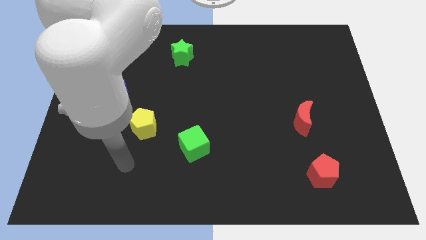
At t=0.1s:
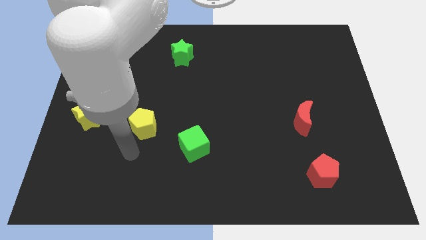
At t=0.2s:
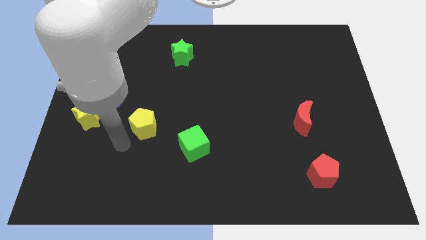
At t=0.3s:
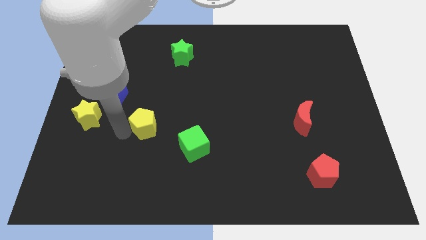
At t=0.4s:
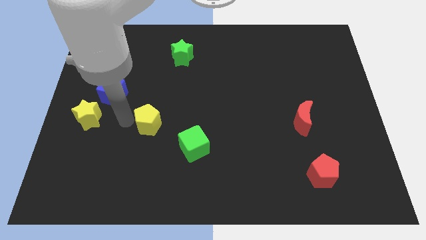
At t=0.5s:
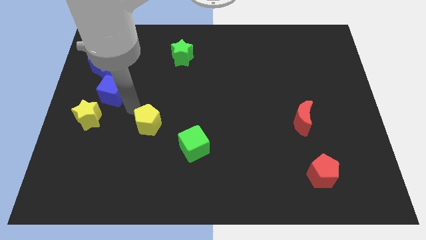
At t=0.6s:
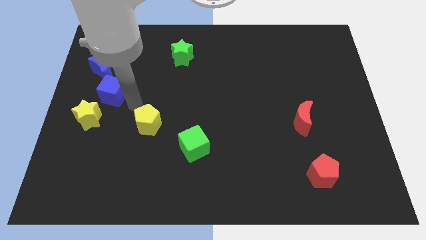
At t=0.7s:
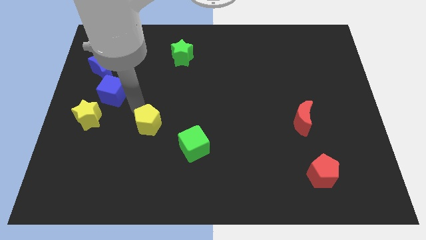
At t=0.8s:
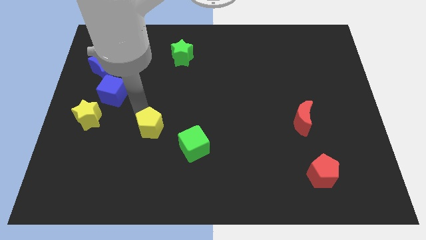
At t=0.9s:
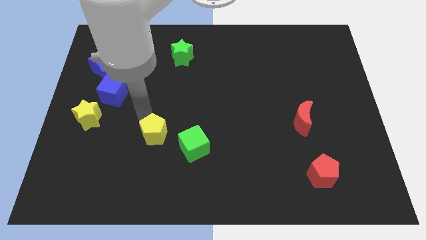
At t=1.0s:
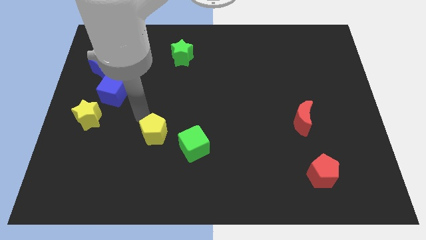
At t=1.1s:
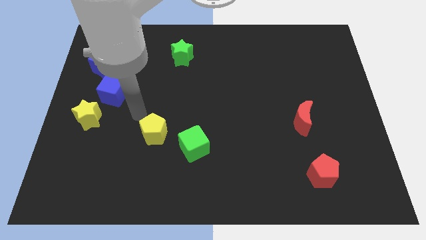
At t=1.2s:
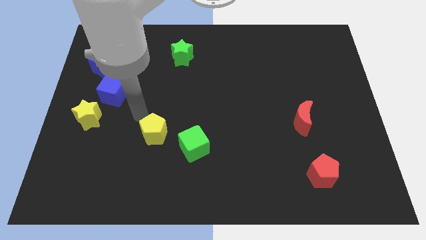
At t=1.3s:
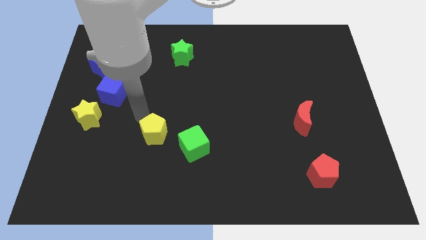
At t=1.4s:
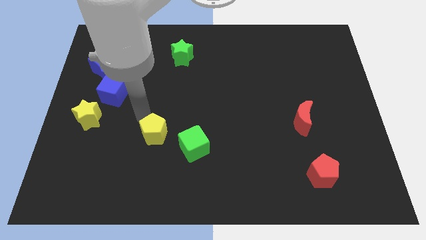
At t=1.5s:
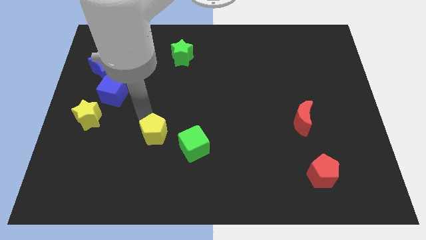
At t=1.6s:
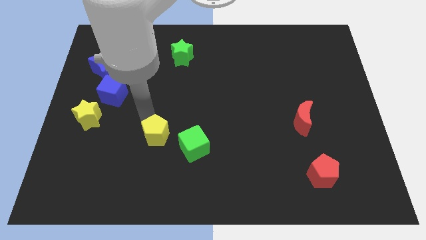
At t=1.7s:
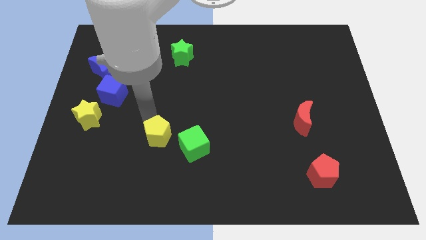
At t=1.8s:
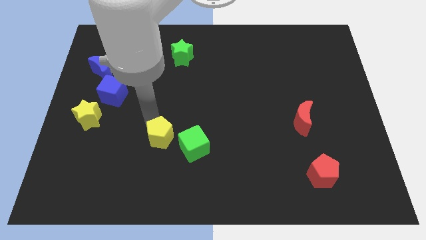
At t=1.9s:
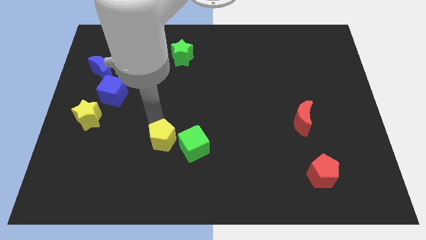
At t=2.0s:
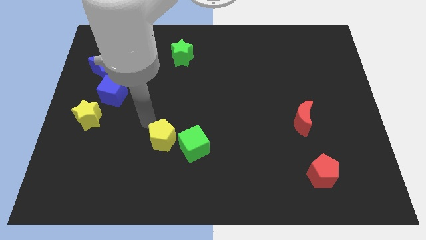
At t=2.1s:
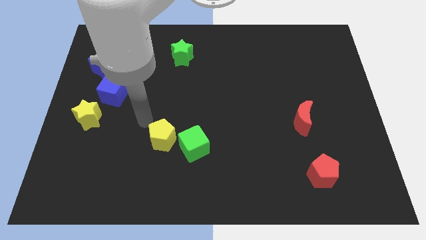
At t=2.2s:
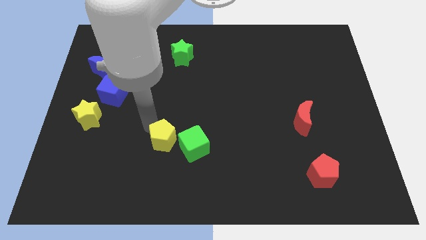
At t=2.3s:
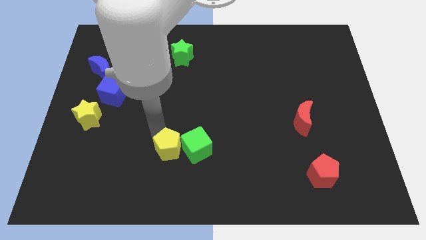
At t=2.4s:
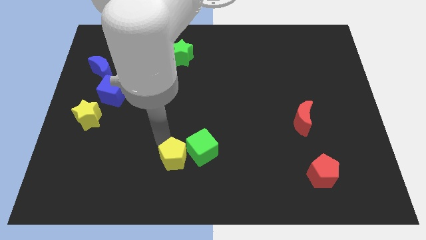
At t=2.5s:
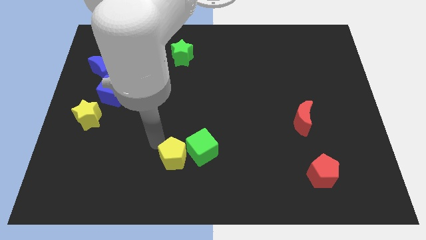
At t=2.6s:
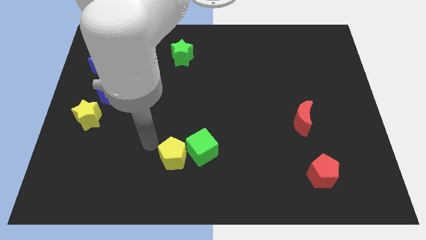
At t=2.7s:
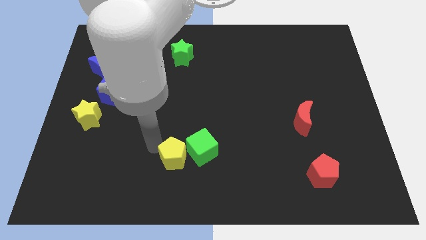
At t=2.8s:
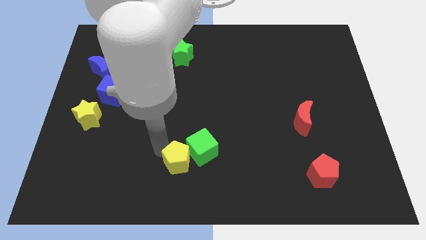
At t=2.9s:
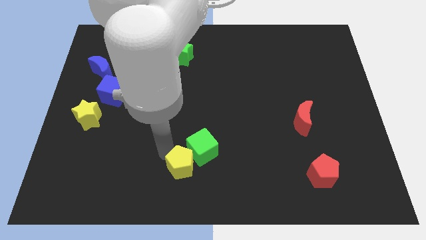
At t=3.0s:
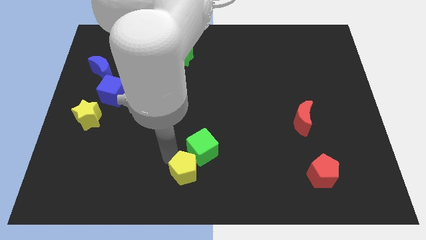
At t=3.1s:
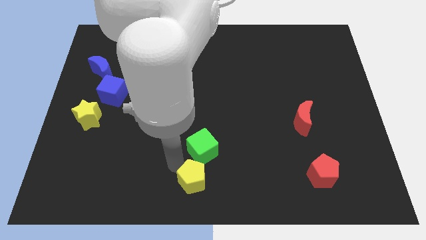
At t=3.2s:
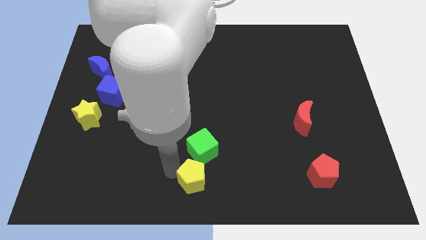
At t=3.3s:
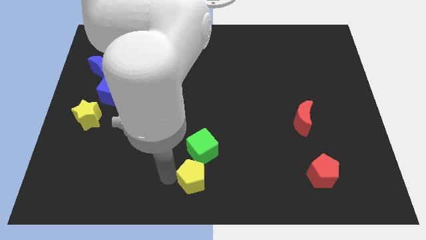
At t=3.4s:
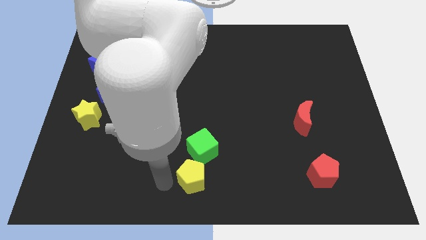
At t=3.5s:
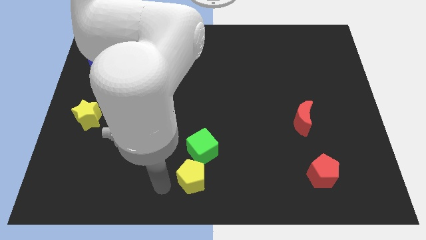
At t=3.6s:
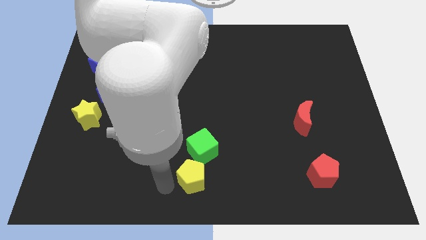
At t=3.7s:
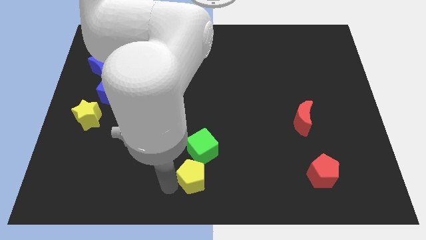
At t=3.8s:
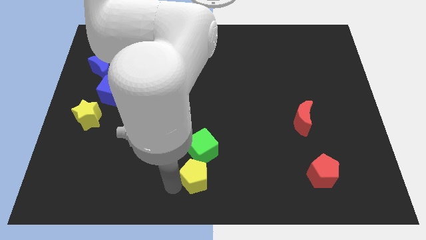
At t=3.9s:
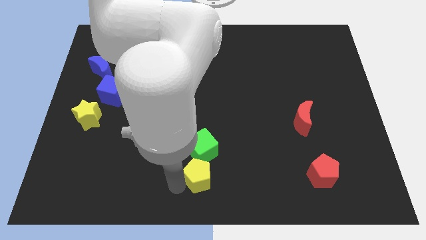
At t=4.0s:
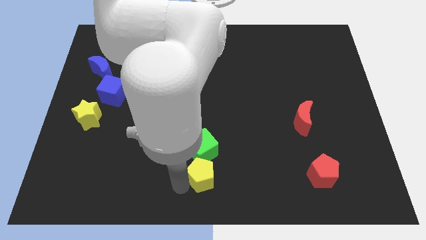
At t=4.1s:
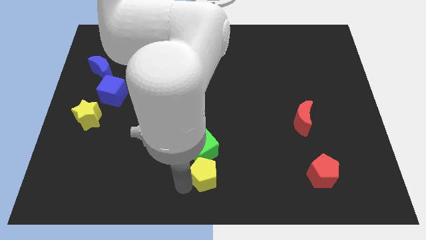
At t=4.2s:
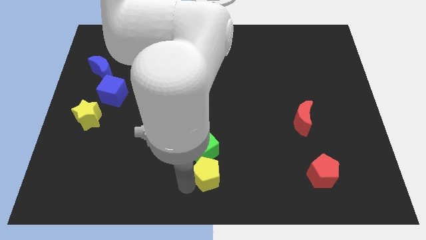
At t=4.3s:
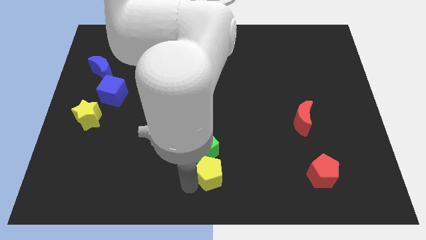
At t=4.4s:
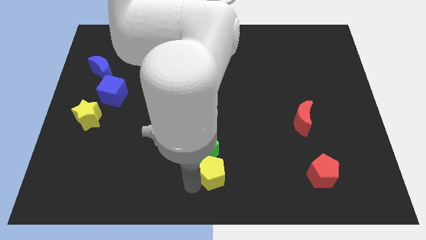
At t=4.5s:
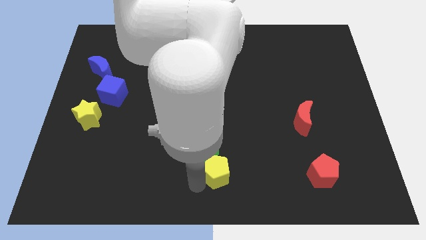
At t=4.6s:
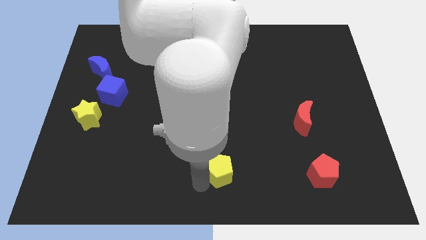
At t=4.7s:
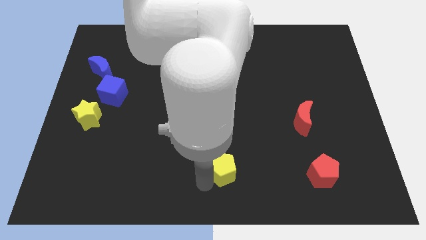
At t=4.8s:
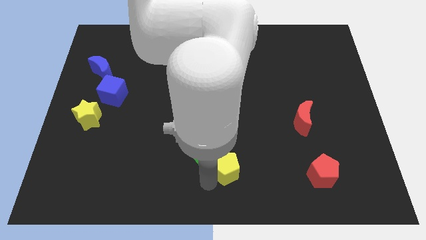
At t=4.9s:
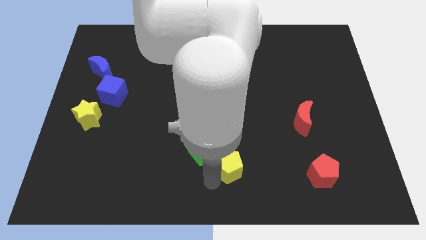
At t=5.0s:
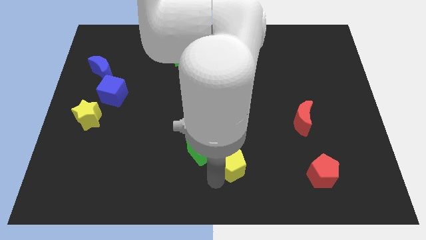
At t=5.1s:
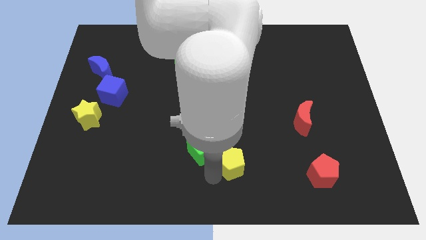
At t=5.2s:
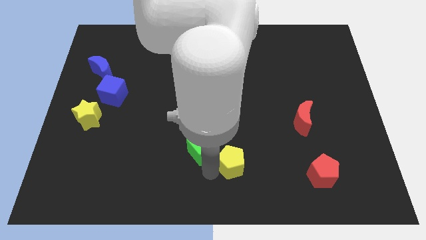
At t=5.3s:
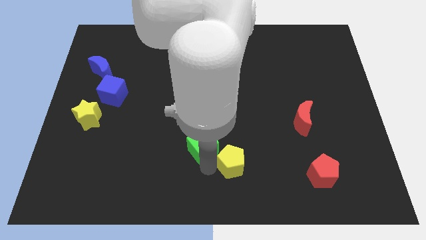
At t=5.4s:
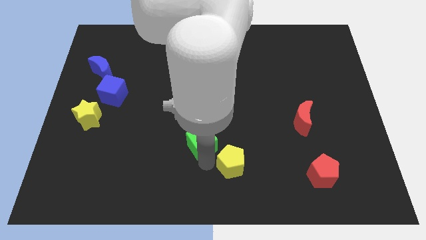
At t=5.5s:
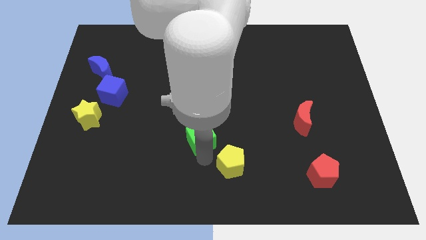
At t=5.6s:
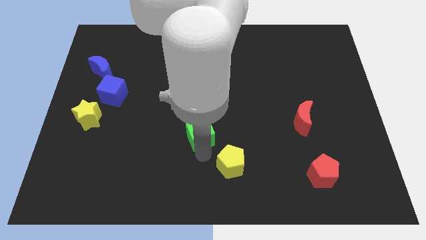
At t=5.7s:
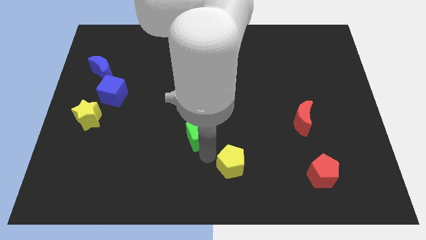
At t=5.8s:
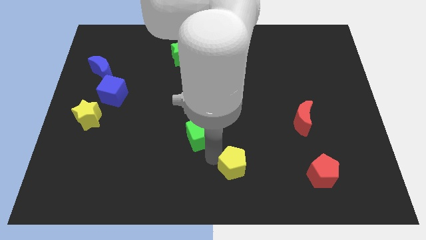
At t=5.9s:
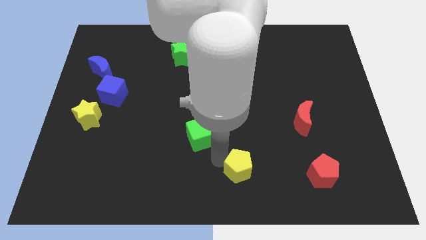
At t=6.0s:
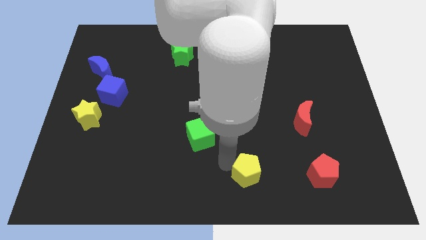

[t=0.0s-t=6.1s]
put the yellow pentagon left of the red pentagon

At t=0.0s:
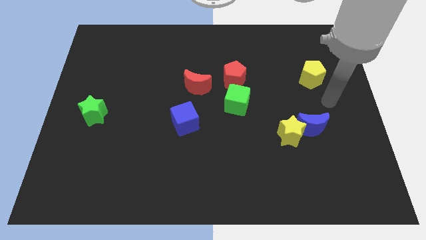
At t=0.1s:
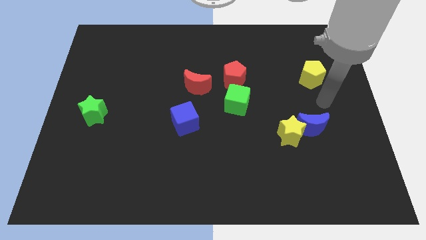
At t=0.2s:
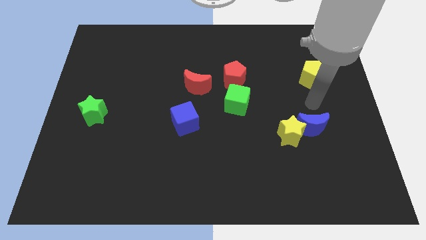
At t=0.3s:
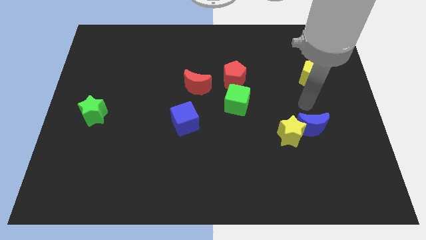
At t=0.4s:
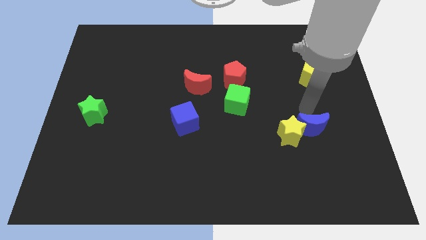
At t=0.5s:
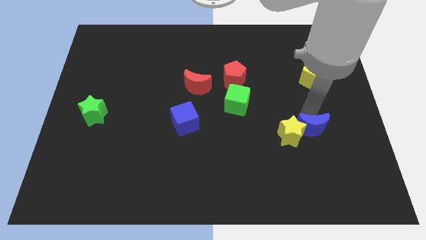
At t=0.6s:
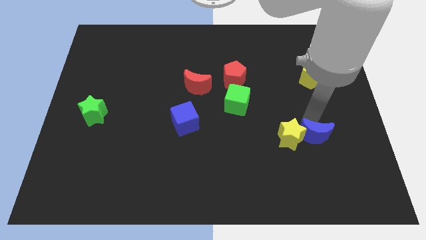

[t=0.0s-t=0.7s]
move the blue moon diagonally down and to the right of the yellow star
